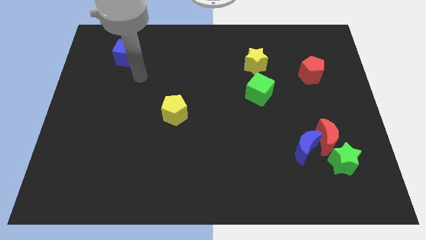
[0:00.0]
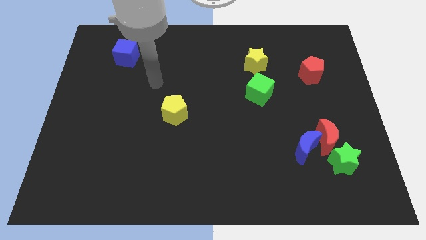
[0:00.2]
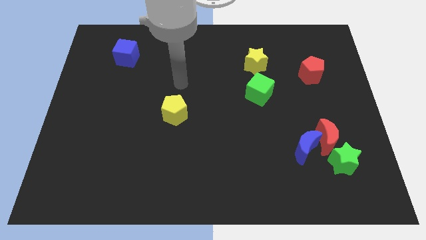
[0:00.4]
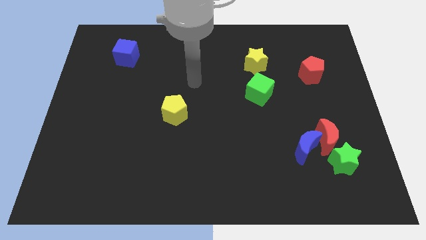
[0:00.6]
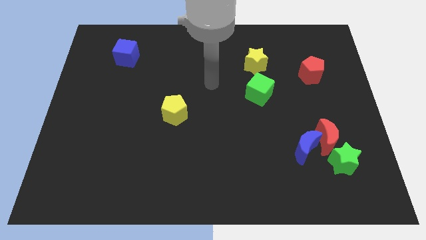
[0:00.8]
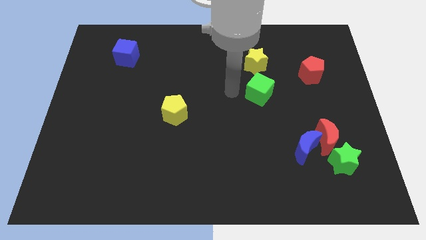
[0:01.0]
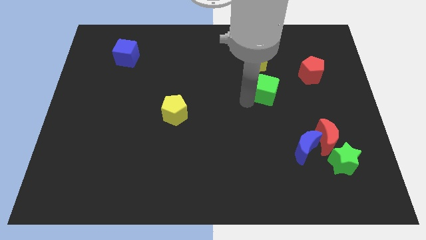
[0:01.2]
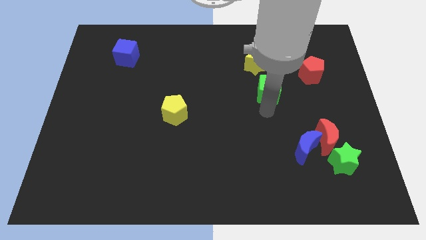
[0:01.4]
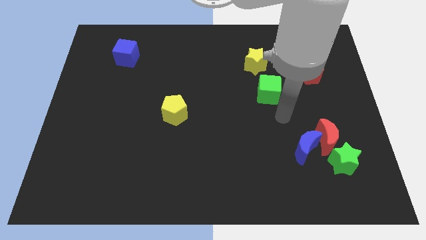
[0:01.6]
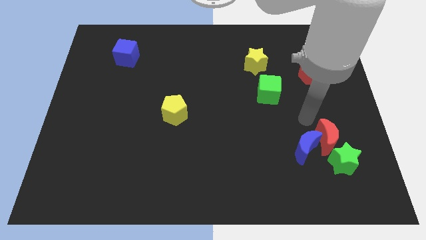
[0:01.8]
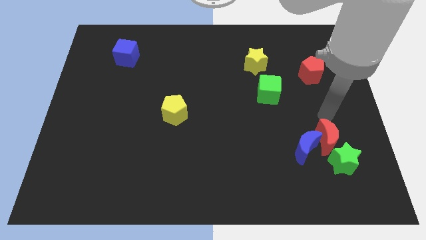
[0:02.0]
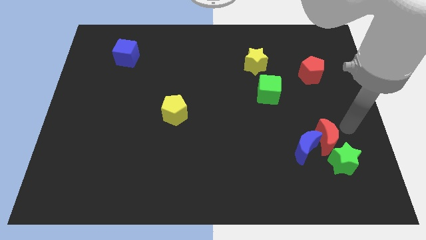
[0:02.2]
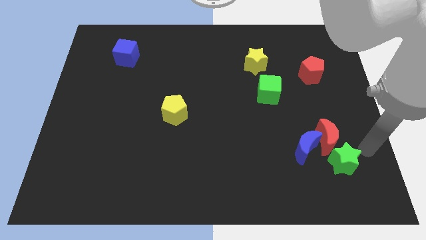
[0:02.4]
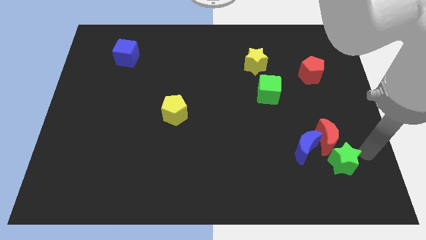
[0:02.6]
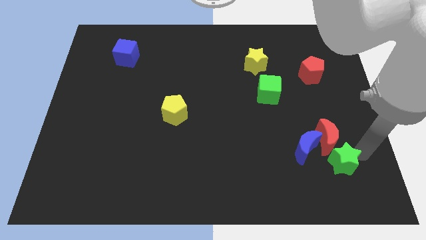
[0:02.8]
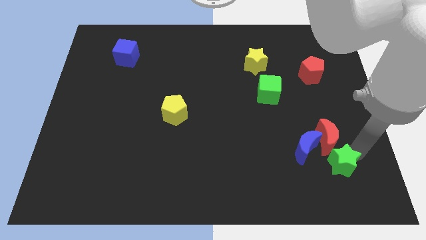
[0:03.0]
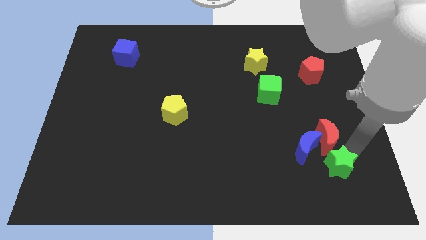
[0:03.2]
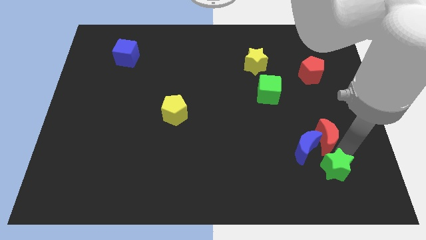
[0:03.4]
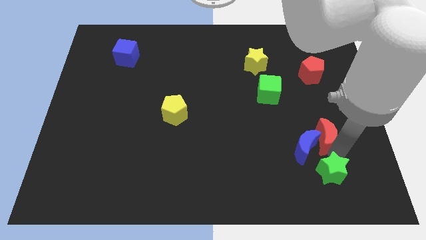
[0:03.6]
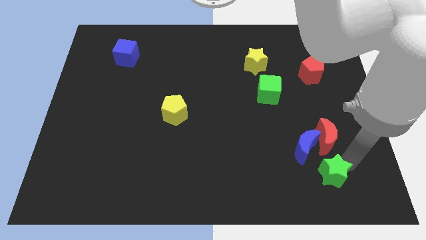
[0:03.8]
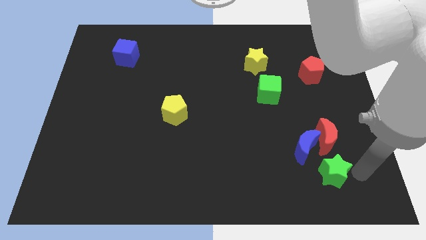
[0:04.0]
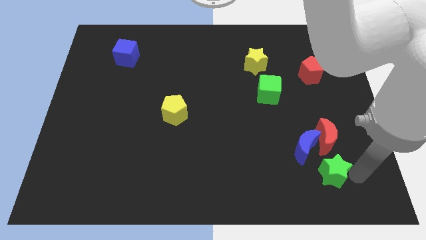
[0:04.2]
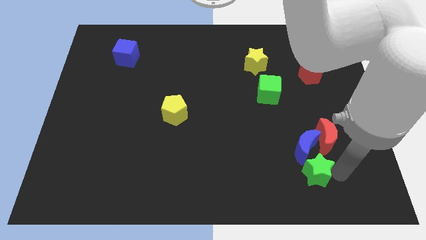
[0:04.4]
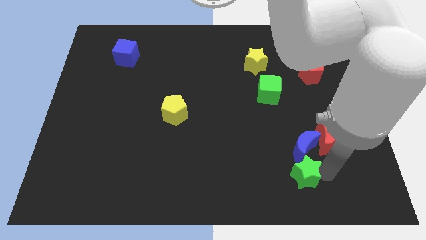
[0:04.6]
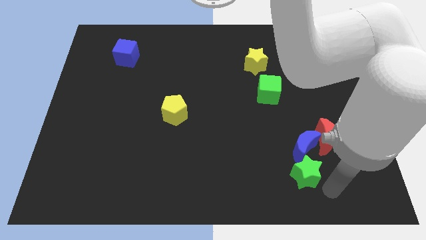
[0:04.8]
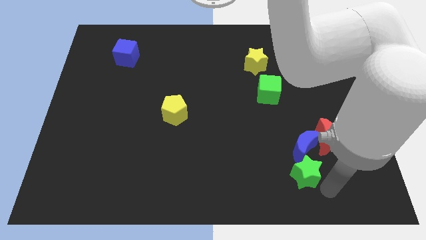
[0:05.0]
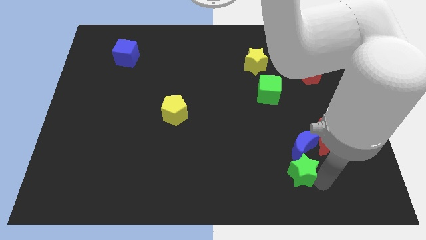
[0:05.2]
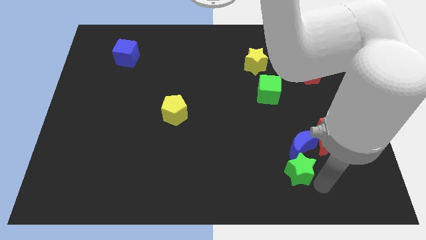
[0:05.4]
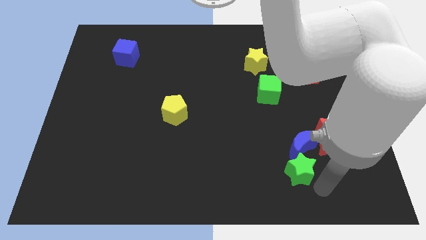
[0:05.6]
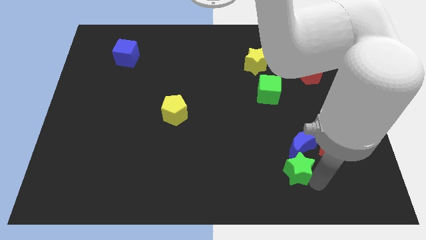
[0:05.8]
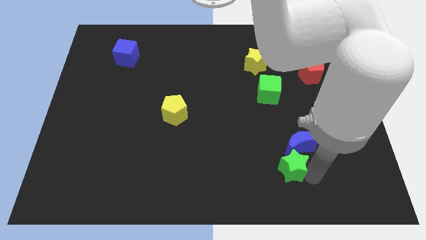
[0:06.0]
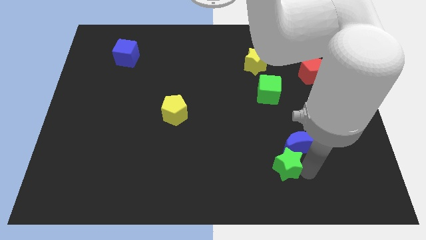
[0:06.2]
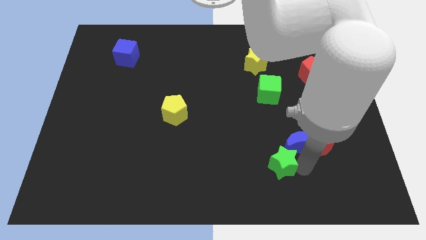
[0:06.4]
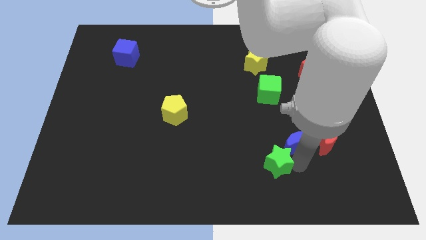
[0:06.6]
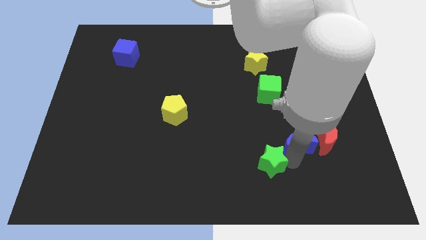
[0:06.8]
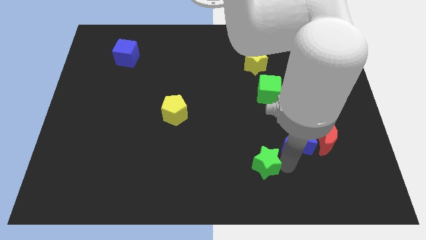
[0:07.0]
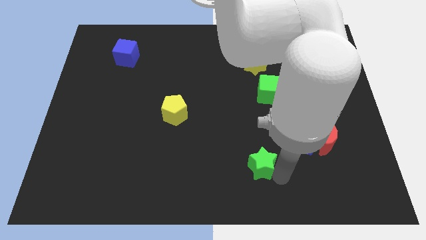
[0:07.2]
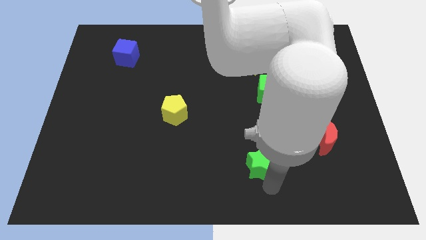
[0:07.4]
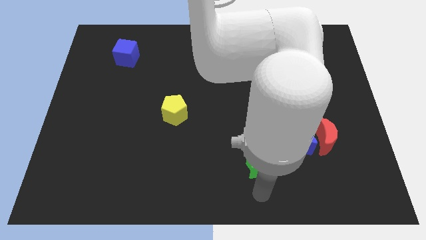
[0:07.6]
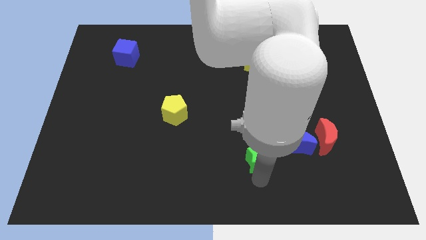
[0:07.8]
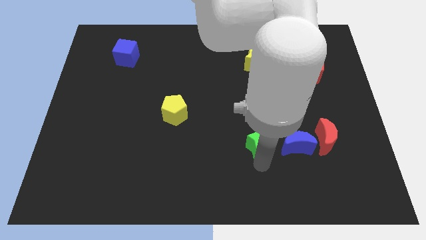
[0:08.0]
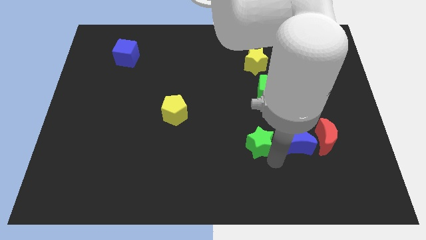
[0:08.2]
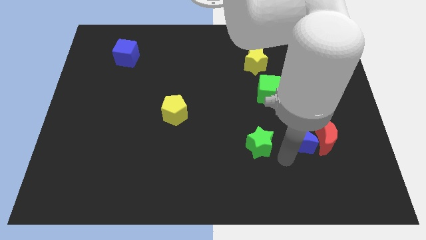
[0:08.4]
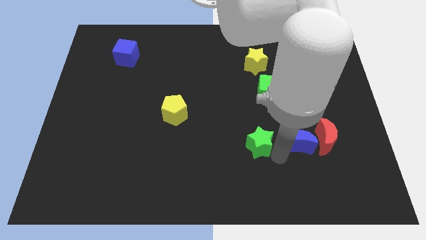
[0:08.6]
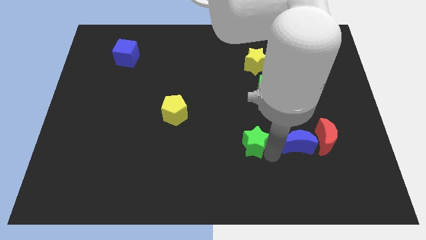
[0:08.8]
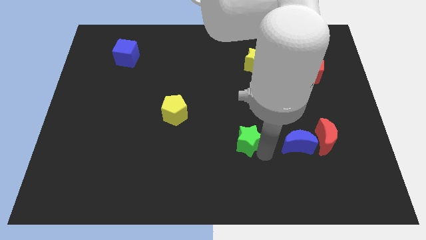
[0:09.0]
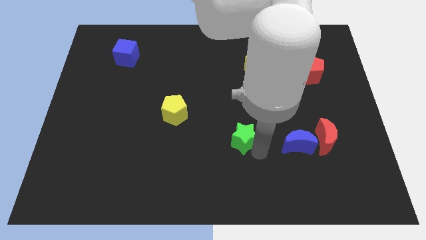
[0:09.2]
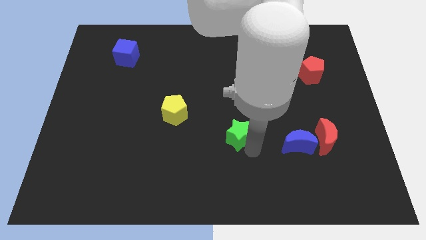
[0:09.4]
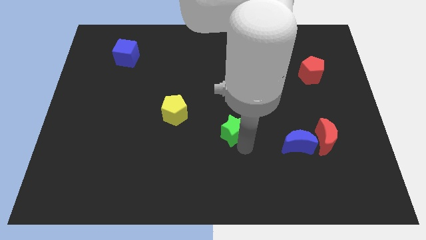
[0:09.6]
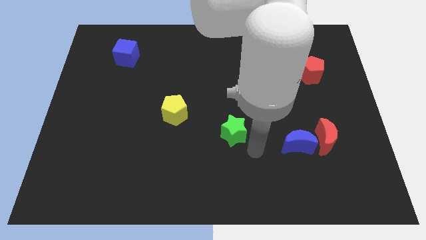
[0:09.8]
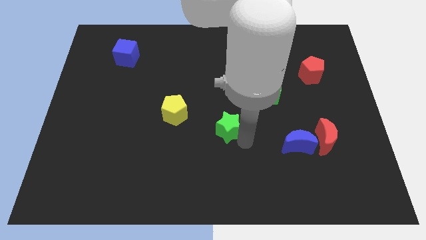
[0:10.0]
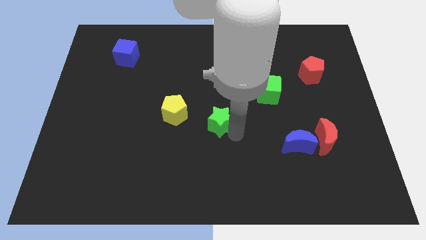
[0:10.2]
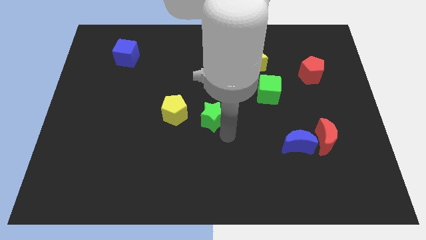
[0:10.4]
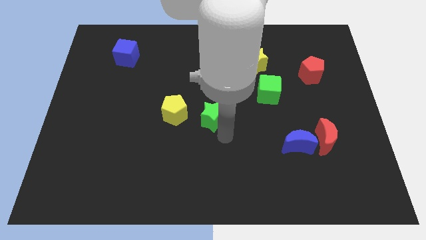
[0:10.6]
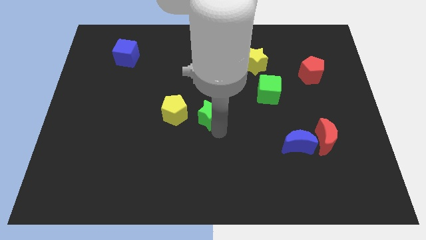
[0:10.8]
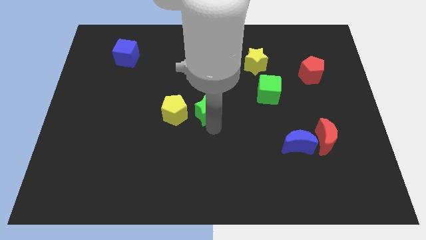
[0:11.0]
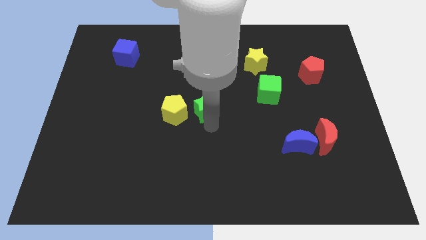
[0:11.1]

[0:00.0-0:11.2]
slide the green star to the top right of the yellow pentagon
